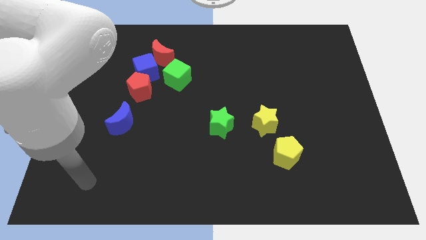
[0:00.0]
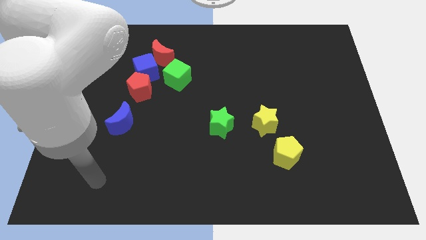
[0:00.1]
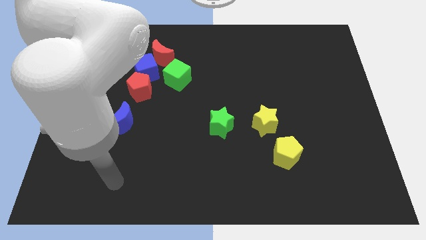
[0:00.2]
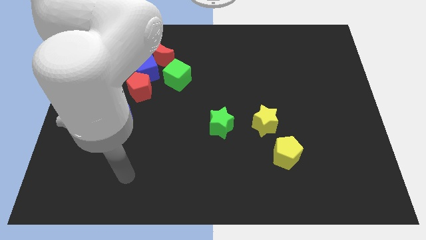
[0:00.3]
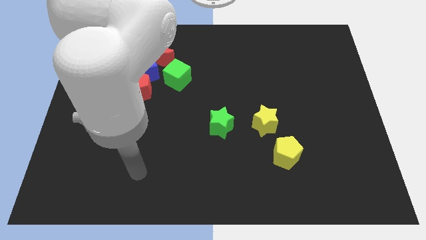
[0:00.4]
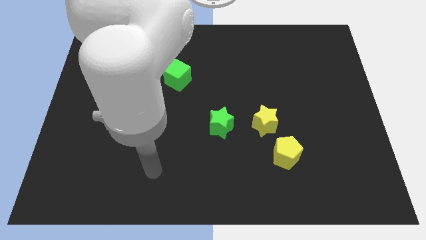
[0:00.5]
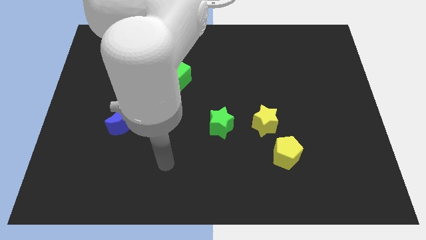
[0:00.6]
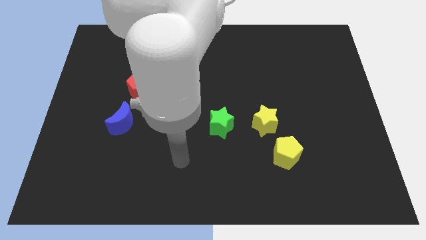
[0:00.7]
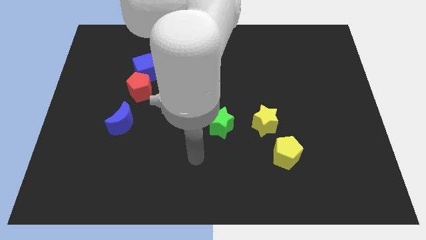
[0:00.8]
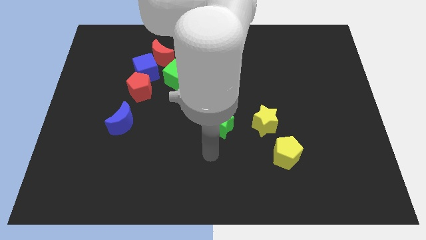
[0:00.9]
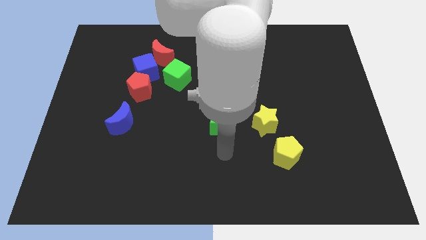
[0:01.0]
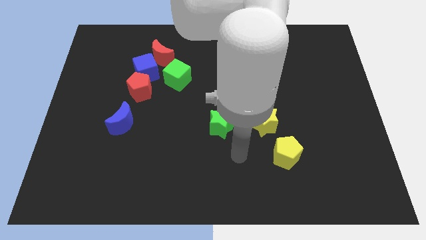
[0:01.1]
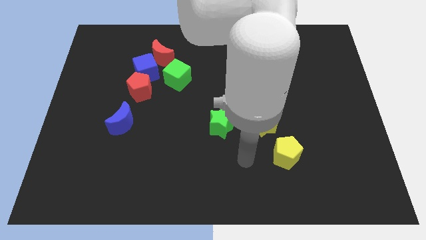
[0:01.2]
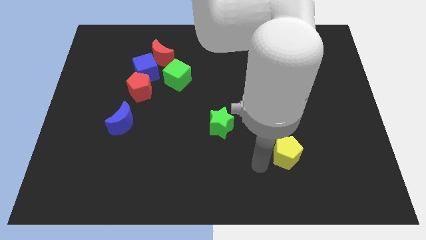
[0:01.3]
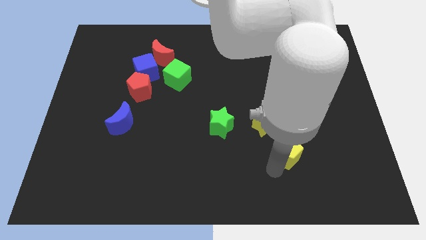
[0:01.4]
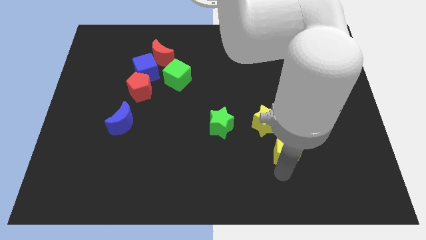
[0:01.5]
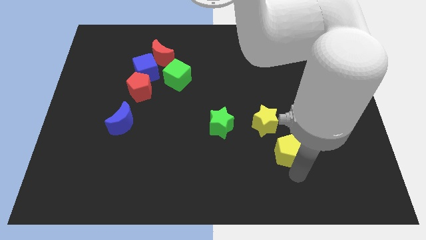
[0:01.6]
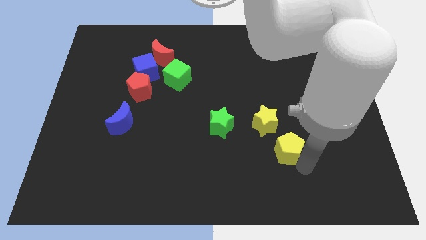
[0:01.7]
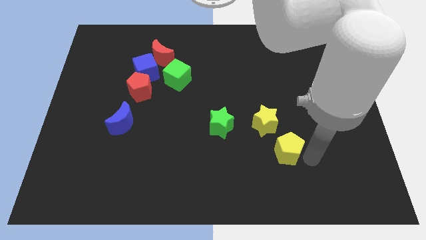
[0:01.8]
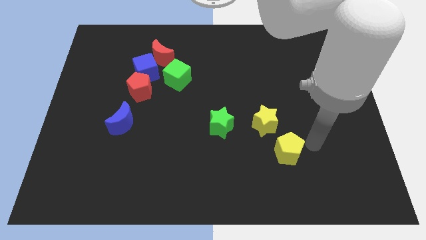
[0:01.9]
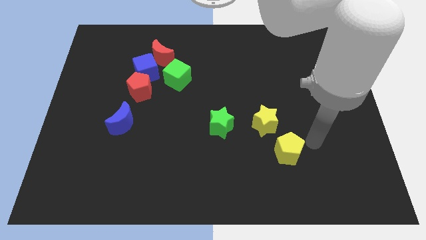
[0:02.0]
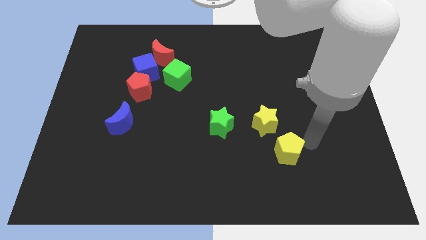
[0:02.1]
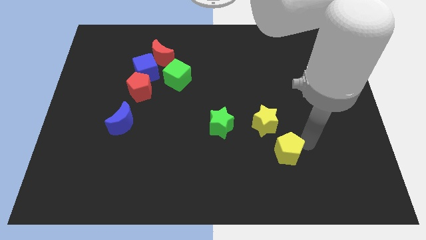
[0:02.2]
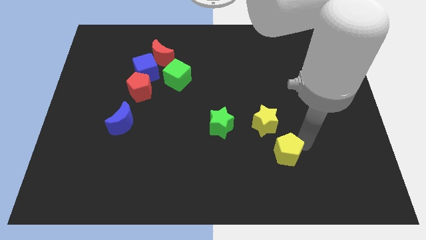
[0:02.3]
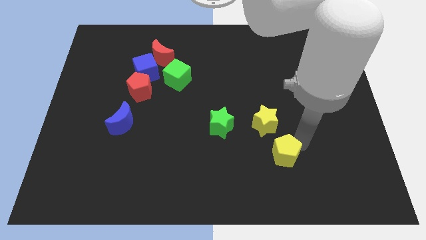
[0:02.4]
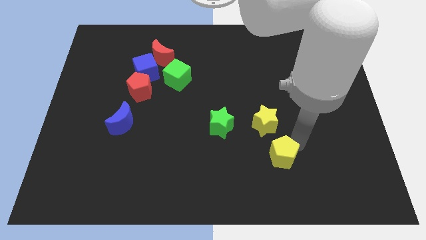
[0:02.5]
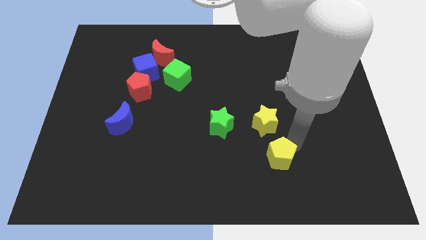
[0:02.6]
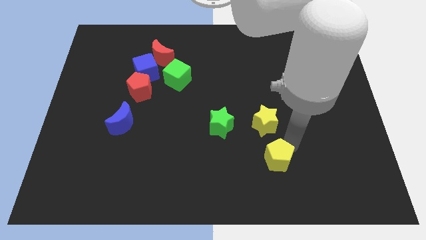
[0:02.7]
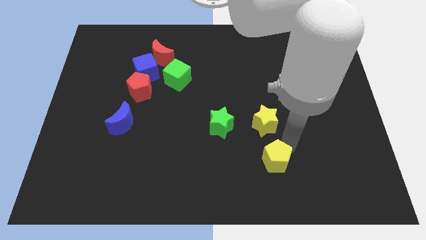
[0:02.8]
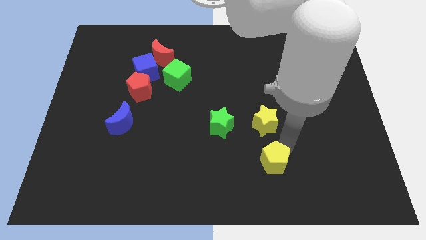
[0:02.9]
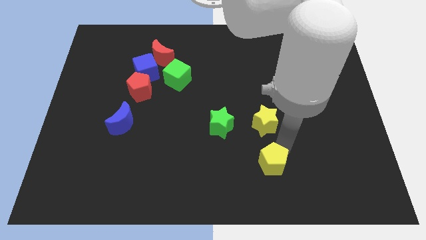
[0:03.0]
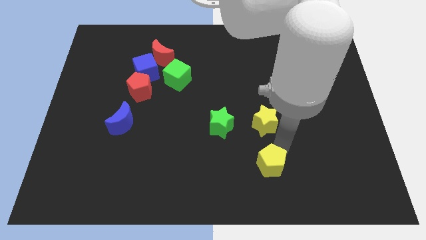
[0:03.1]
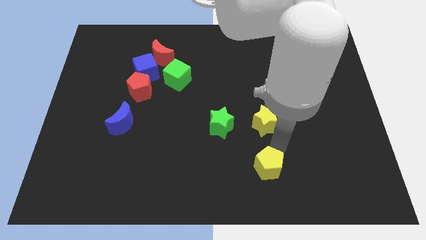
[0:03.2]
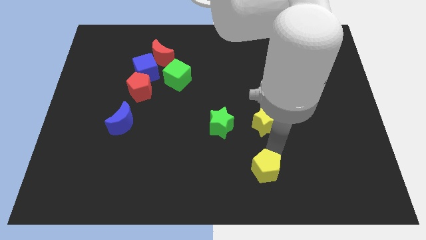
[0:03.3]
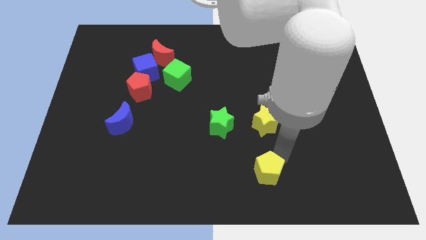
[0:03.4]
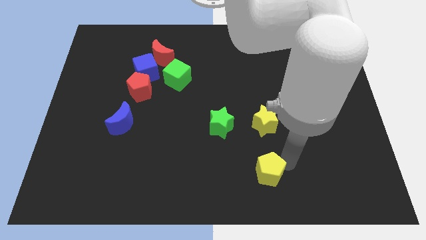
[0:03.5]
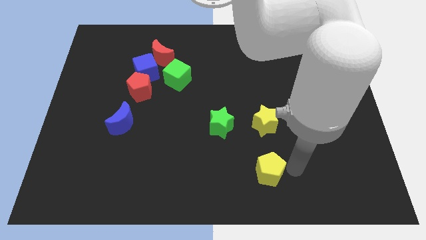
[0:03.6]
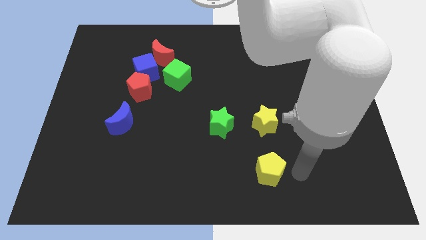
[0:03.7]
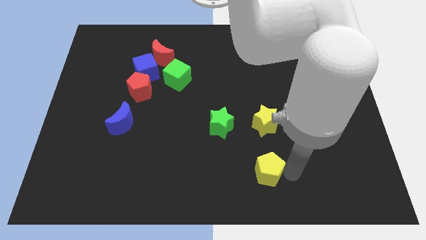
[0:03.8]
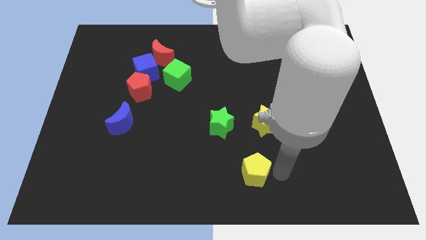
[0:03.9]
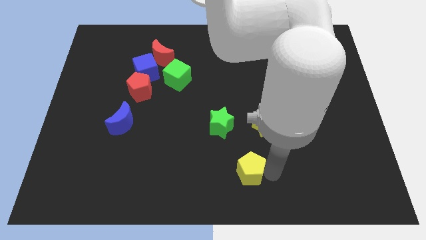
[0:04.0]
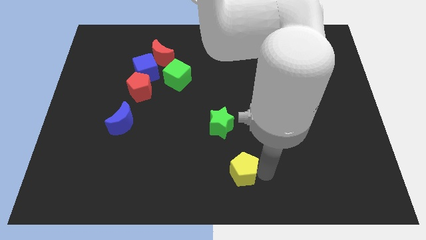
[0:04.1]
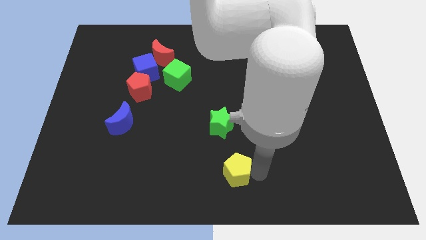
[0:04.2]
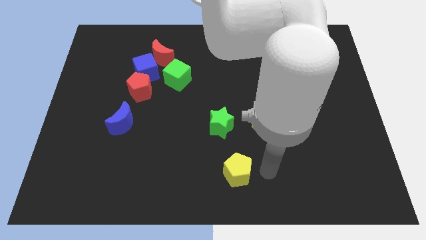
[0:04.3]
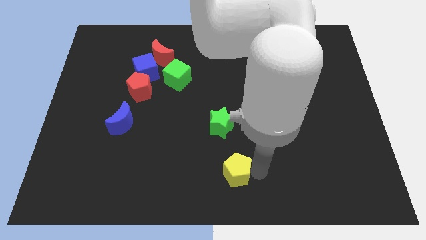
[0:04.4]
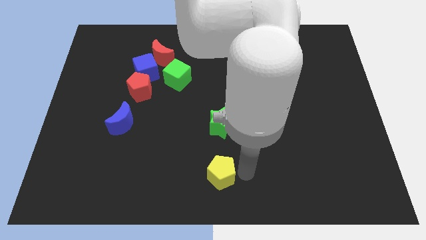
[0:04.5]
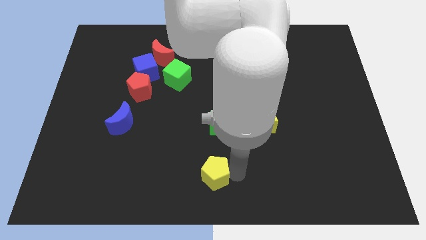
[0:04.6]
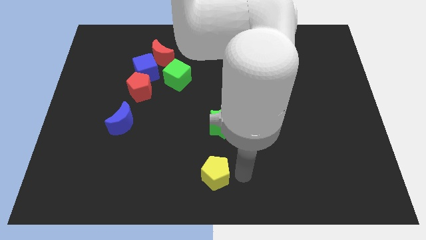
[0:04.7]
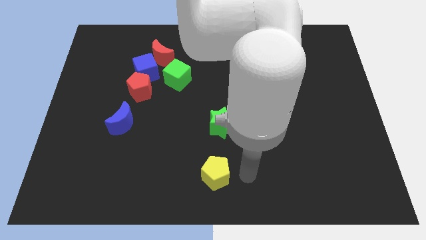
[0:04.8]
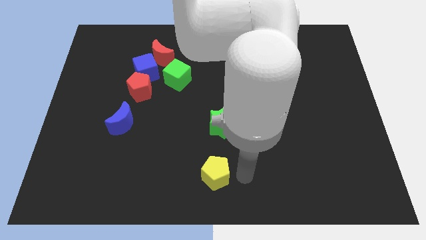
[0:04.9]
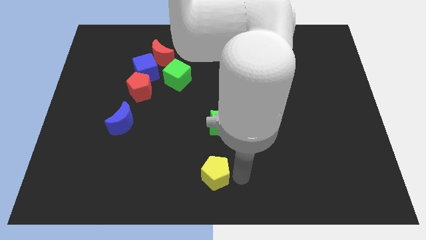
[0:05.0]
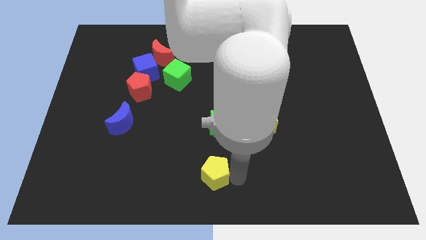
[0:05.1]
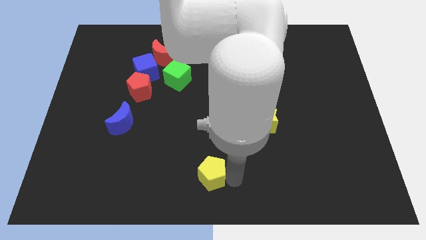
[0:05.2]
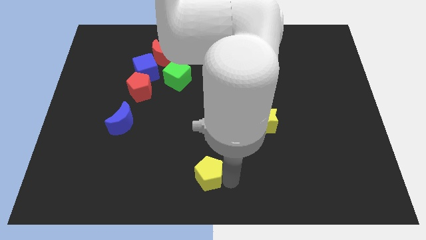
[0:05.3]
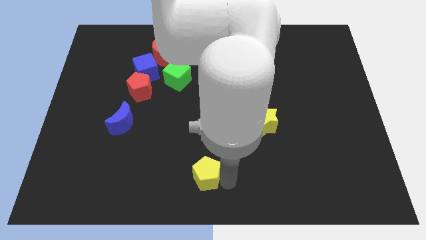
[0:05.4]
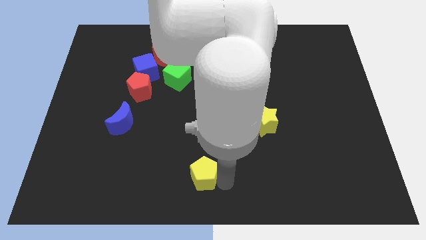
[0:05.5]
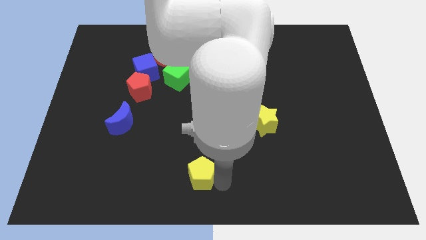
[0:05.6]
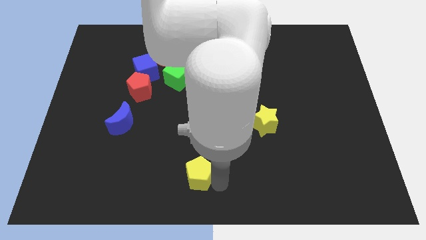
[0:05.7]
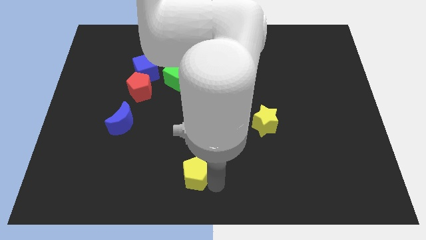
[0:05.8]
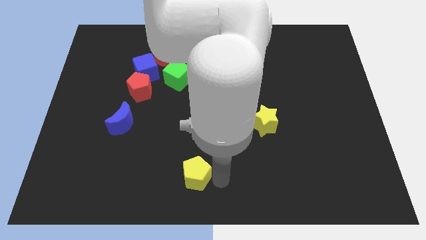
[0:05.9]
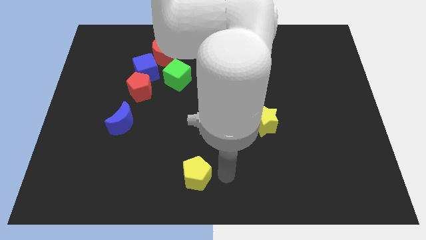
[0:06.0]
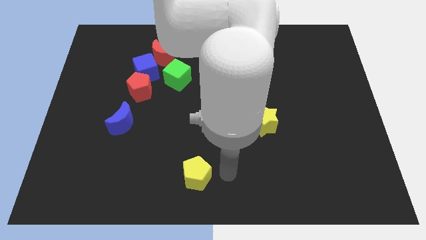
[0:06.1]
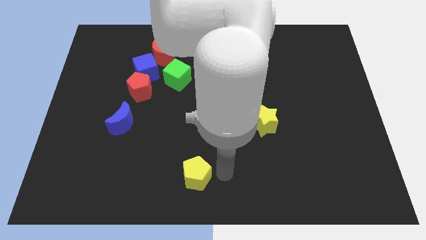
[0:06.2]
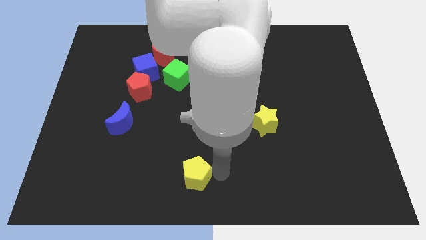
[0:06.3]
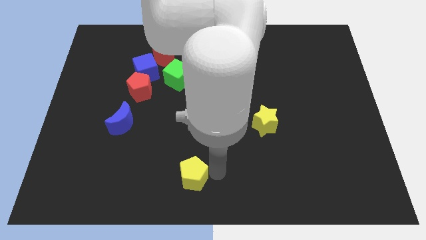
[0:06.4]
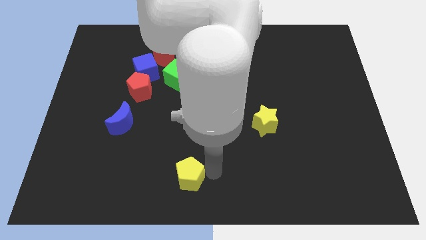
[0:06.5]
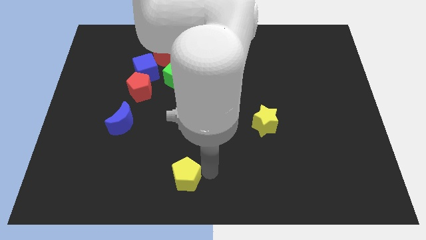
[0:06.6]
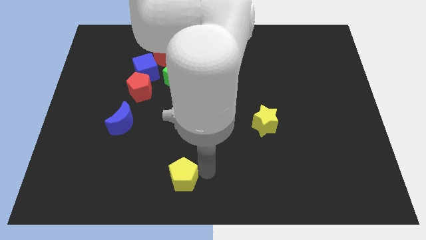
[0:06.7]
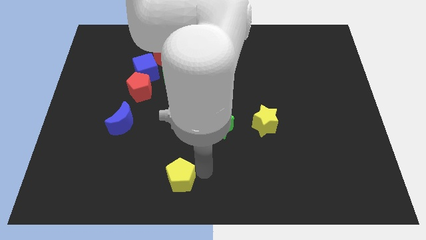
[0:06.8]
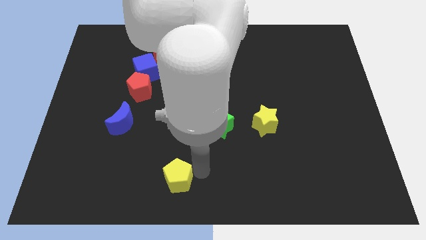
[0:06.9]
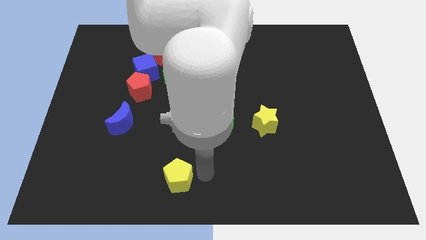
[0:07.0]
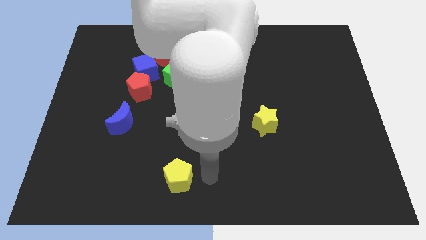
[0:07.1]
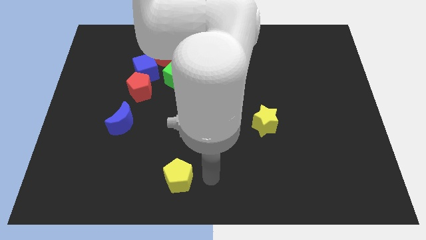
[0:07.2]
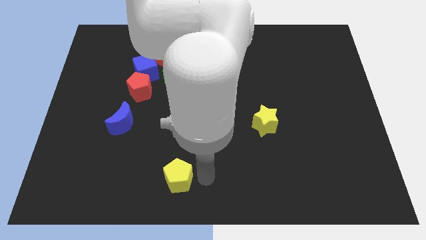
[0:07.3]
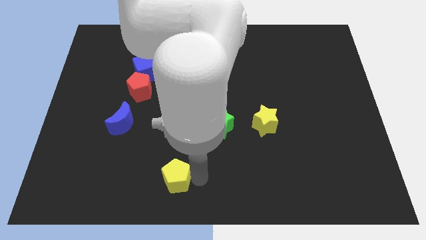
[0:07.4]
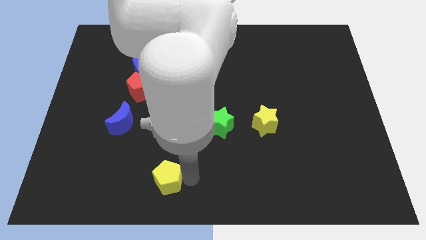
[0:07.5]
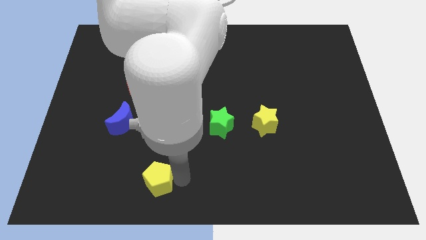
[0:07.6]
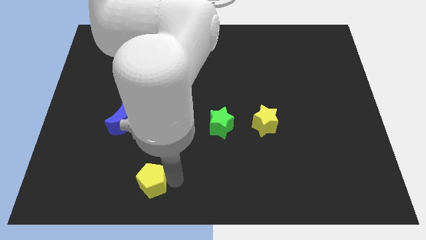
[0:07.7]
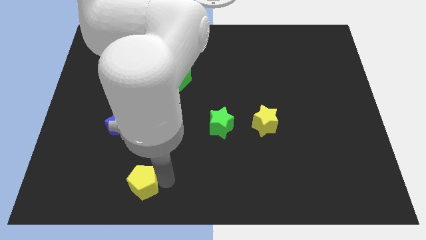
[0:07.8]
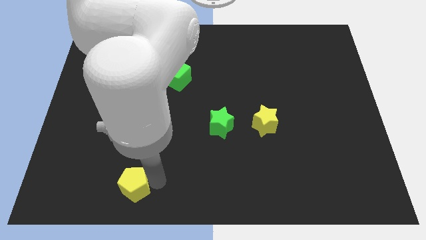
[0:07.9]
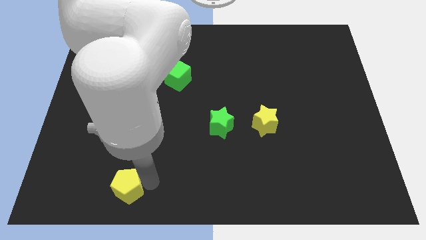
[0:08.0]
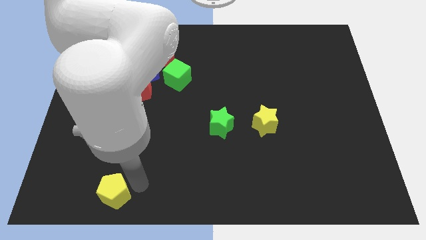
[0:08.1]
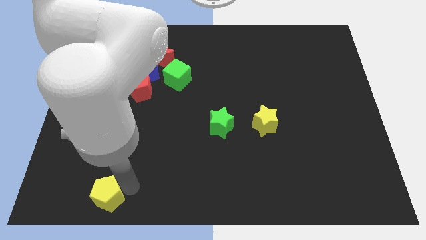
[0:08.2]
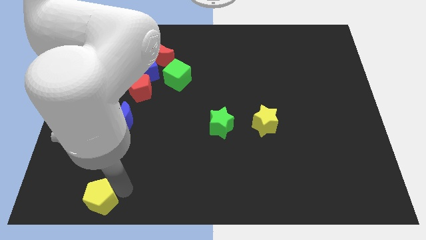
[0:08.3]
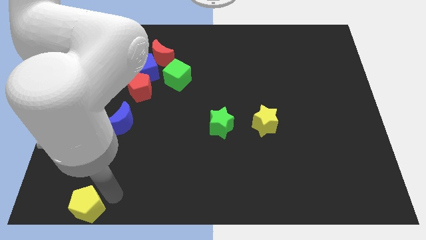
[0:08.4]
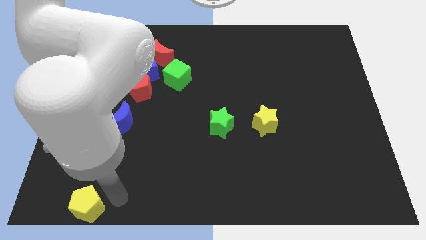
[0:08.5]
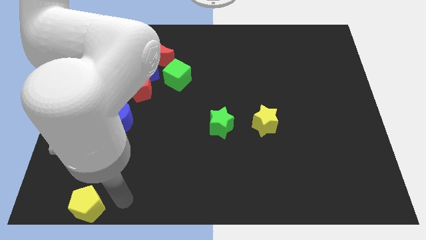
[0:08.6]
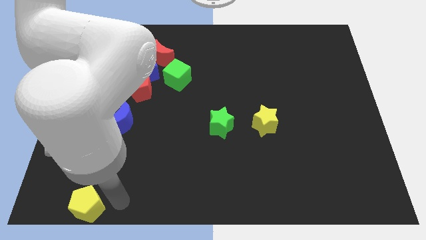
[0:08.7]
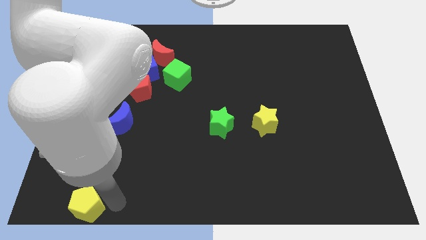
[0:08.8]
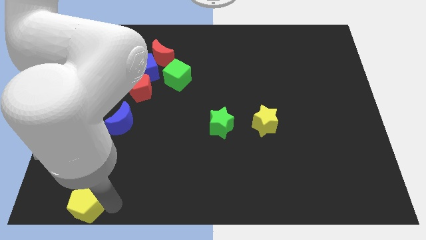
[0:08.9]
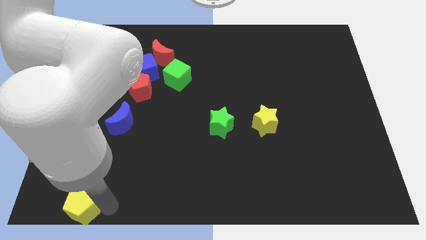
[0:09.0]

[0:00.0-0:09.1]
put the yellow pentagon to the bottom left corner
